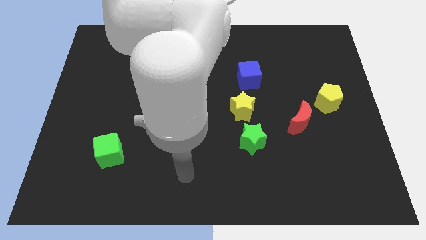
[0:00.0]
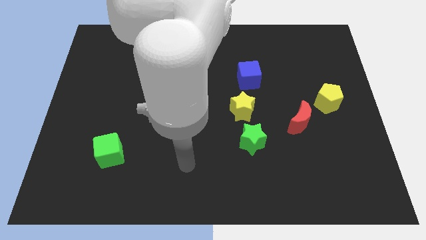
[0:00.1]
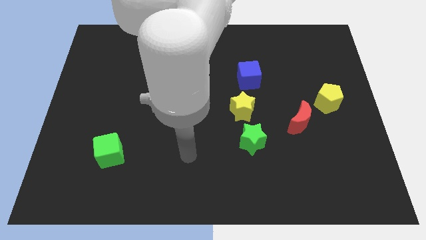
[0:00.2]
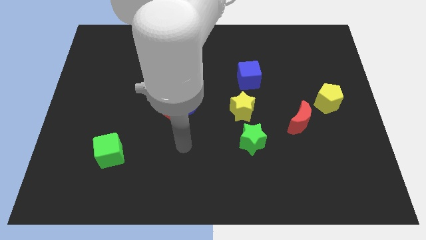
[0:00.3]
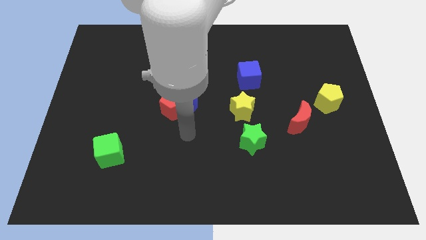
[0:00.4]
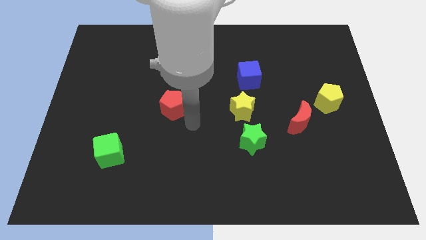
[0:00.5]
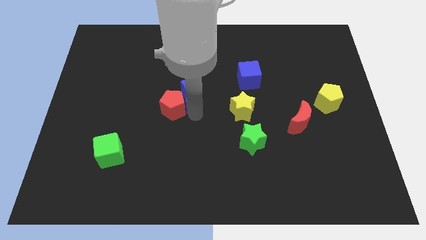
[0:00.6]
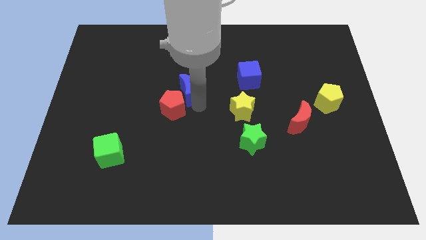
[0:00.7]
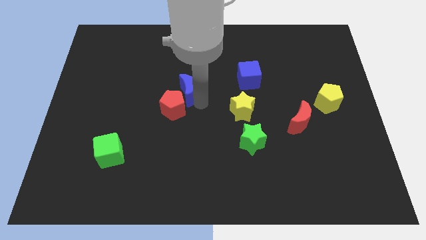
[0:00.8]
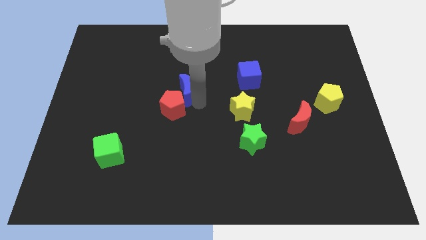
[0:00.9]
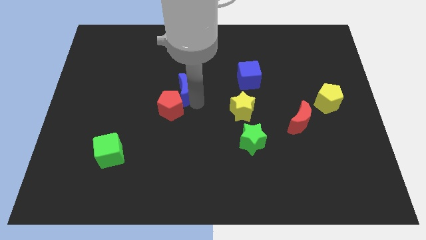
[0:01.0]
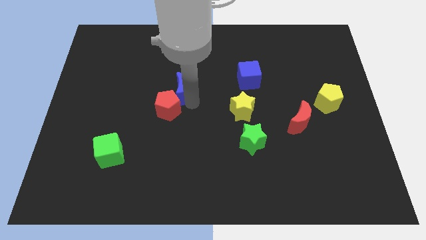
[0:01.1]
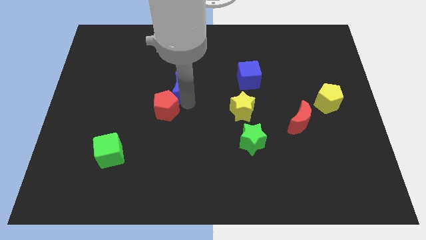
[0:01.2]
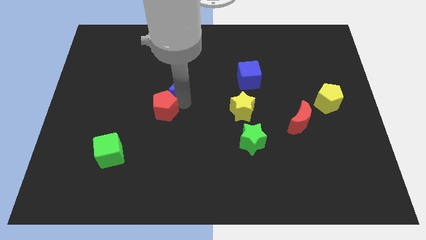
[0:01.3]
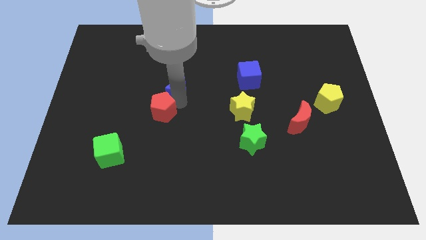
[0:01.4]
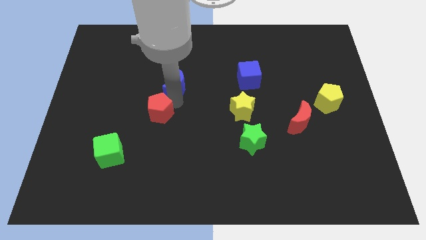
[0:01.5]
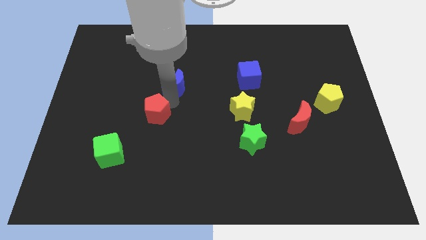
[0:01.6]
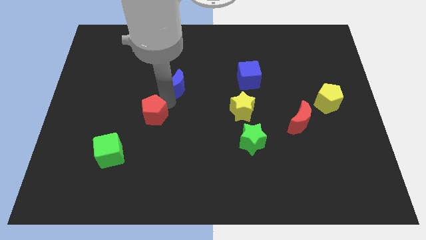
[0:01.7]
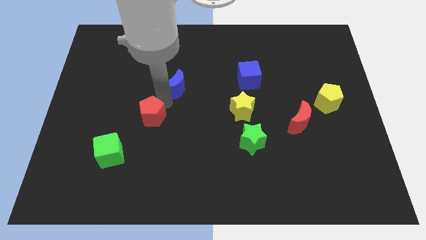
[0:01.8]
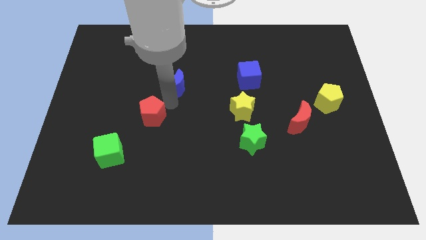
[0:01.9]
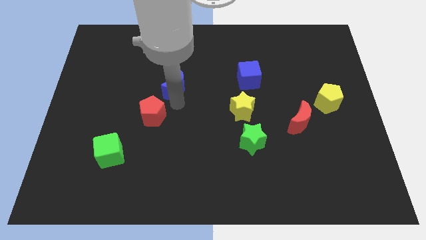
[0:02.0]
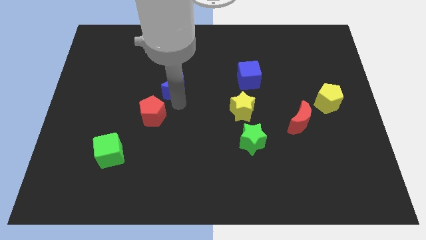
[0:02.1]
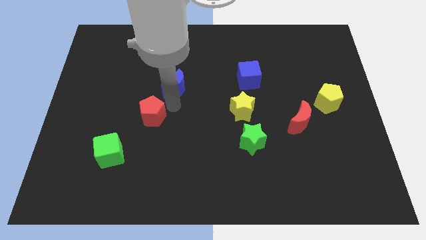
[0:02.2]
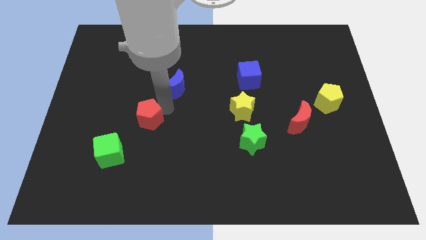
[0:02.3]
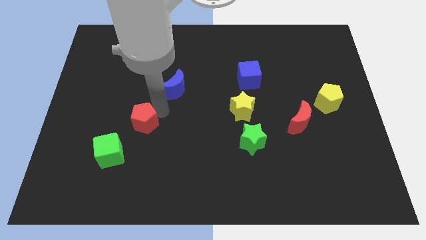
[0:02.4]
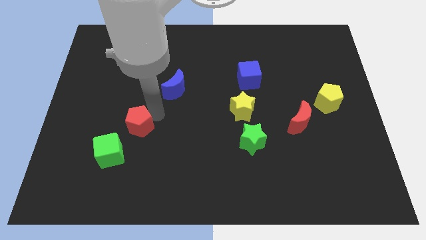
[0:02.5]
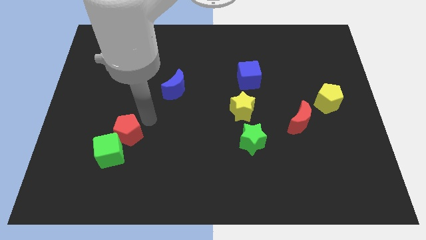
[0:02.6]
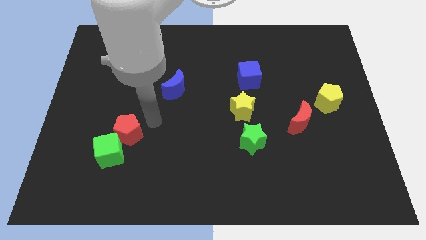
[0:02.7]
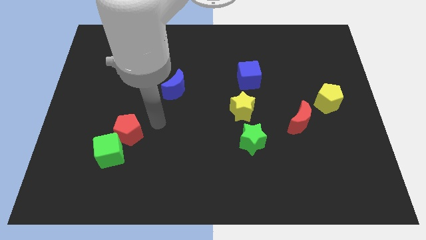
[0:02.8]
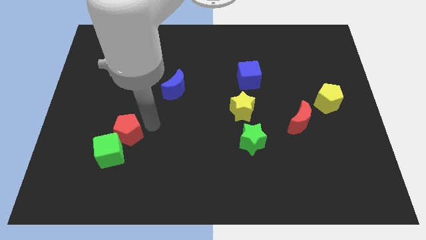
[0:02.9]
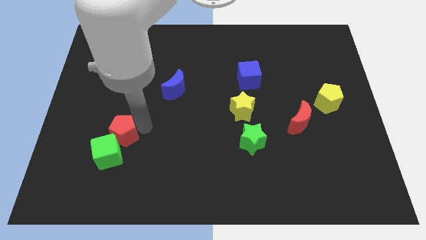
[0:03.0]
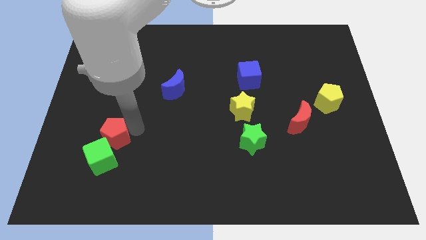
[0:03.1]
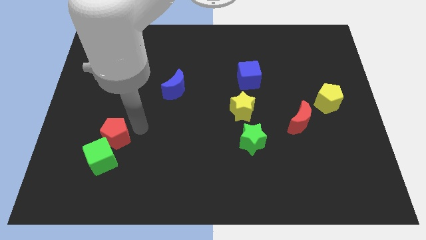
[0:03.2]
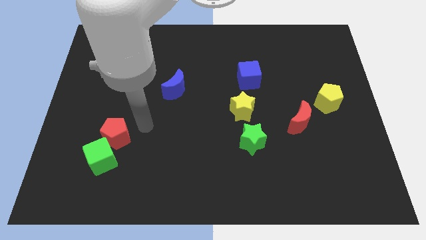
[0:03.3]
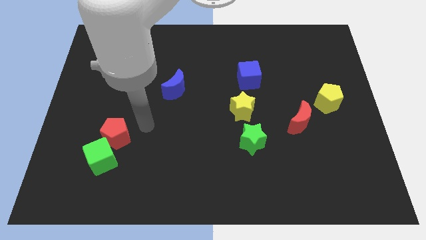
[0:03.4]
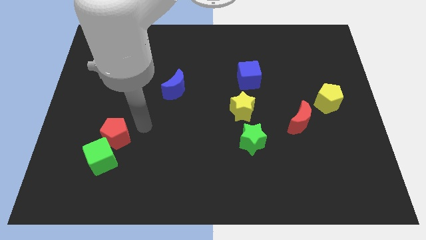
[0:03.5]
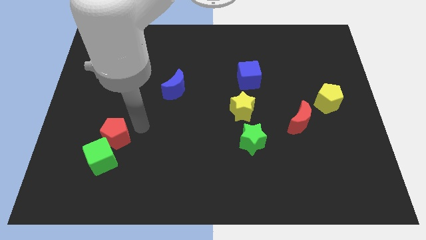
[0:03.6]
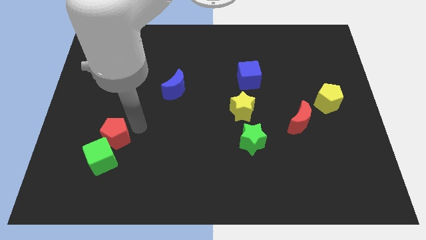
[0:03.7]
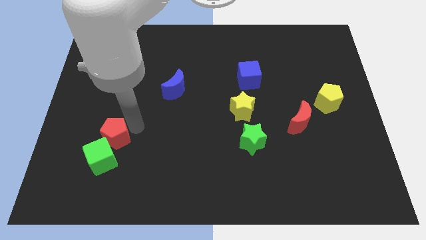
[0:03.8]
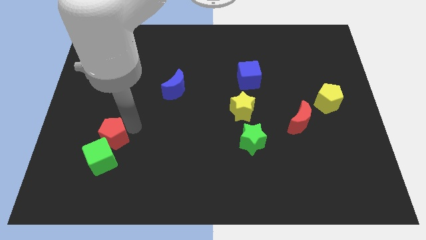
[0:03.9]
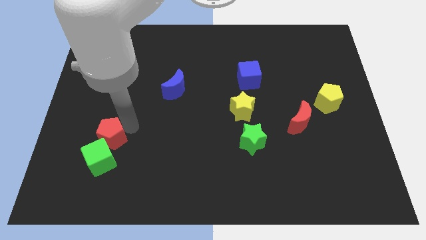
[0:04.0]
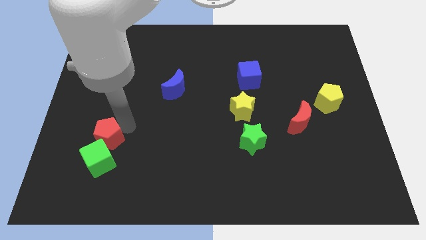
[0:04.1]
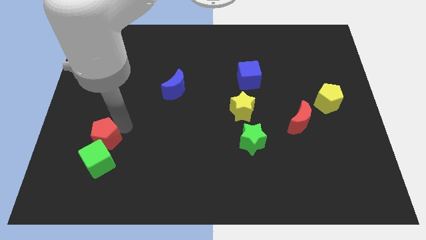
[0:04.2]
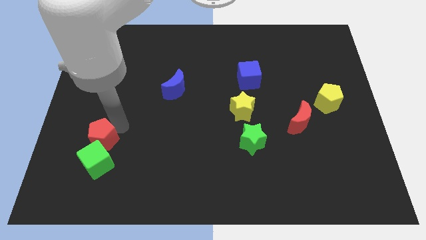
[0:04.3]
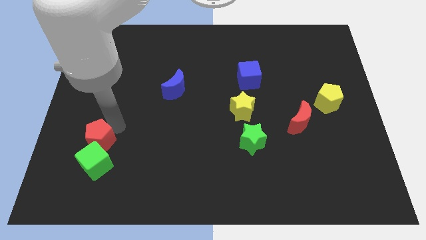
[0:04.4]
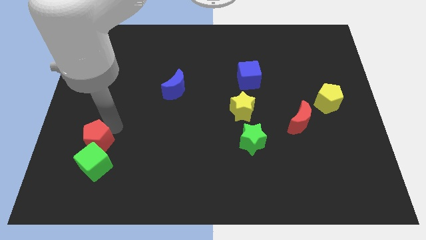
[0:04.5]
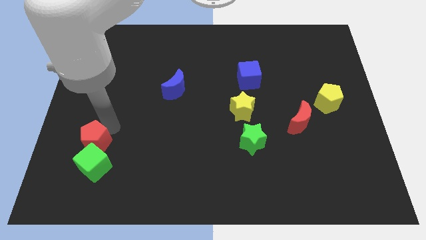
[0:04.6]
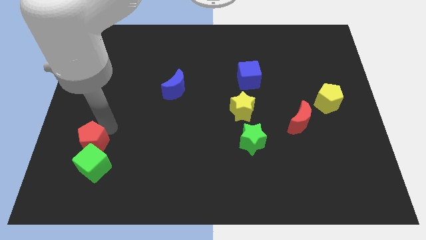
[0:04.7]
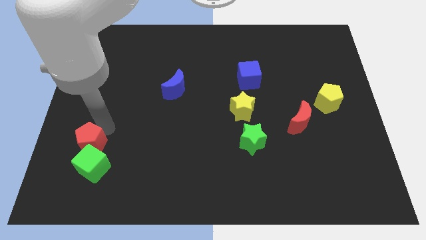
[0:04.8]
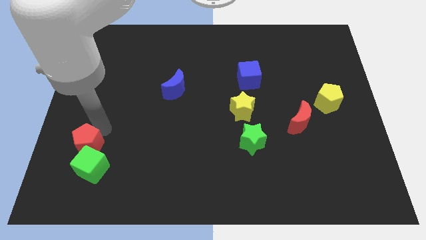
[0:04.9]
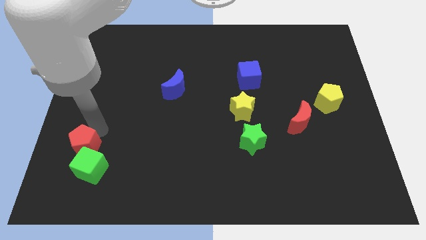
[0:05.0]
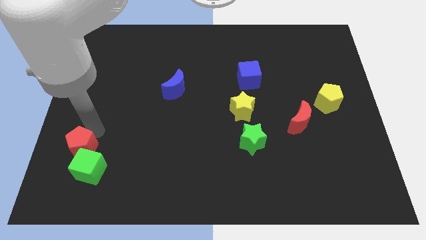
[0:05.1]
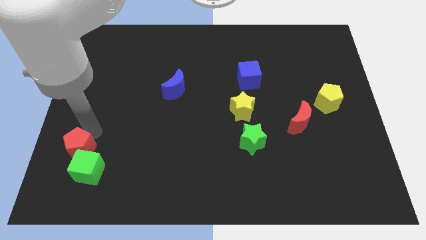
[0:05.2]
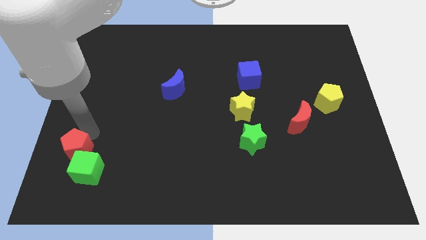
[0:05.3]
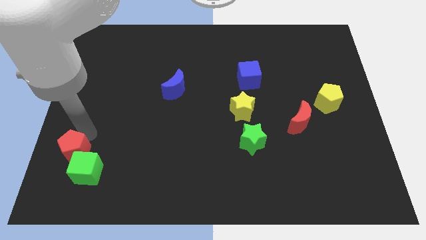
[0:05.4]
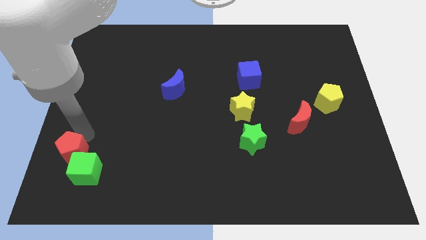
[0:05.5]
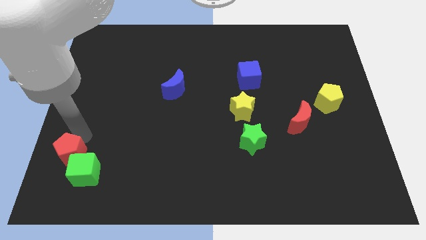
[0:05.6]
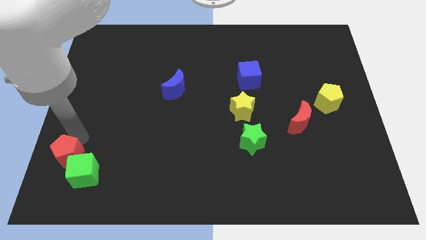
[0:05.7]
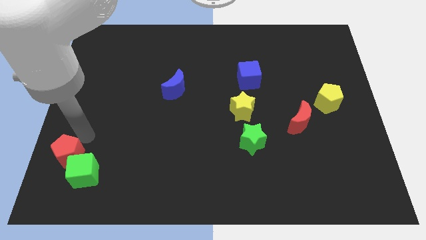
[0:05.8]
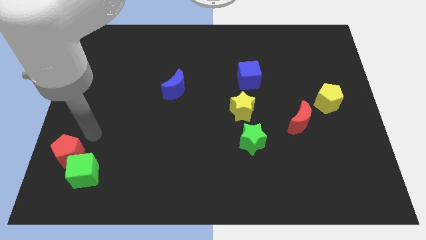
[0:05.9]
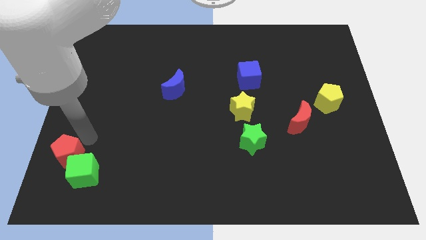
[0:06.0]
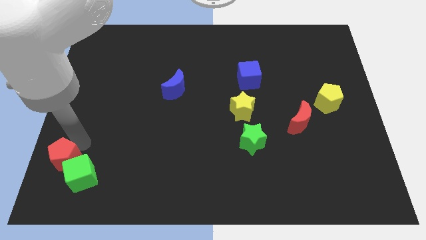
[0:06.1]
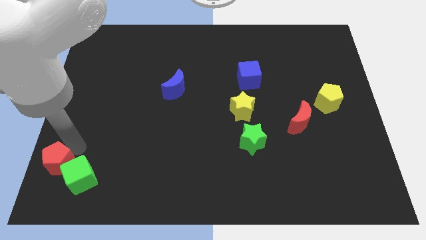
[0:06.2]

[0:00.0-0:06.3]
move the red pentagon to the bottom left of the board
